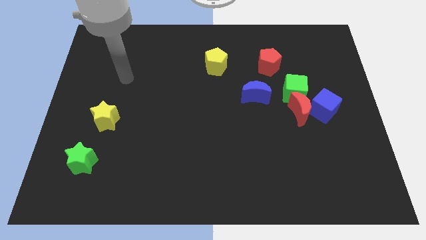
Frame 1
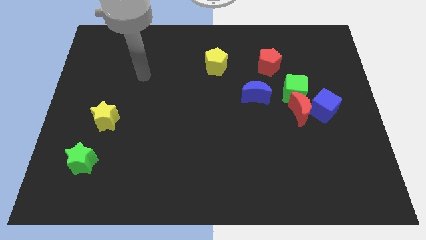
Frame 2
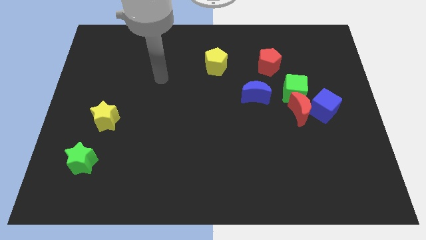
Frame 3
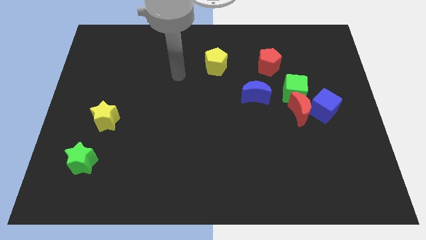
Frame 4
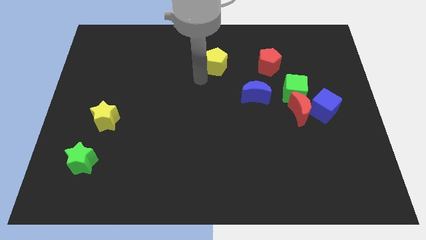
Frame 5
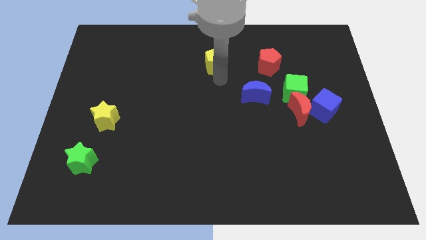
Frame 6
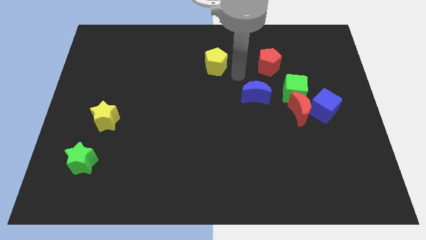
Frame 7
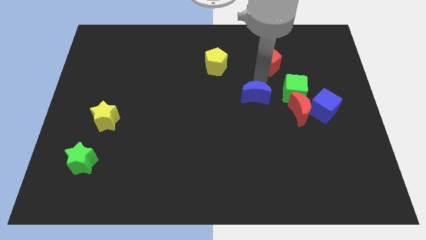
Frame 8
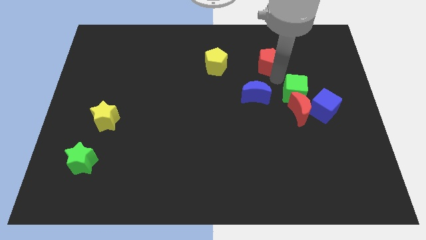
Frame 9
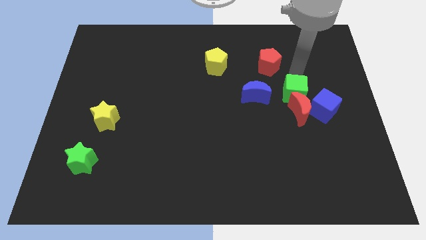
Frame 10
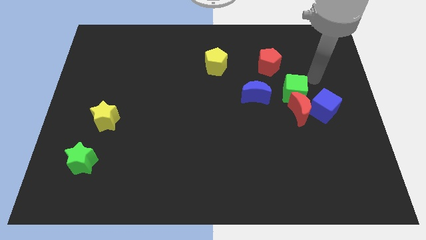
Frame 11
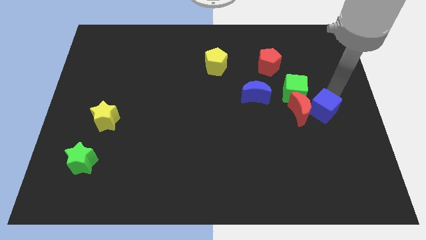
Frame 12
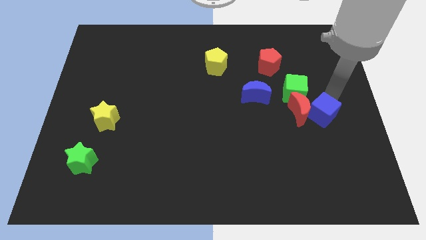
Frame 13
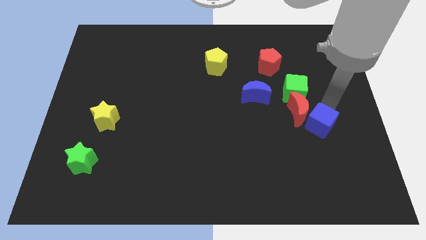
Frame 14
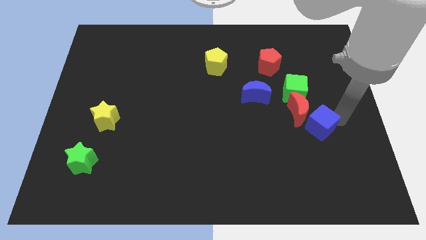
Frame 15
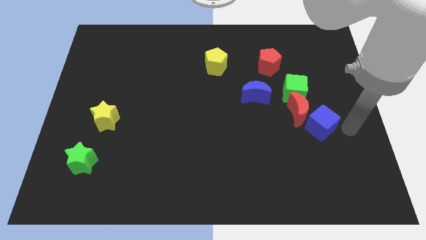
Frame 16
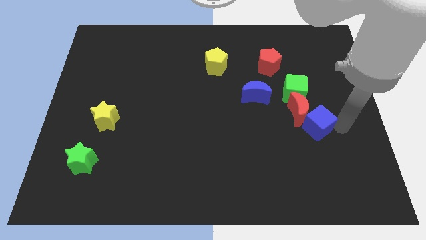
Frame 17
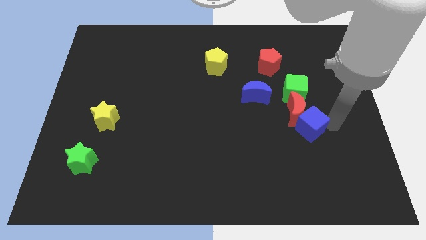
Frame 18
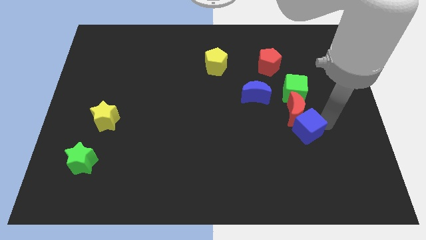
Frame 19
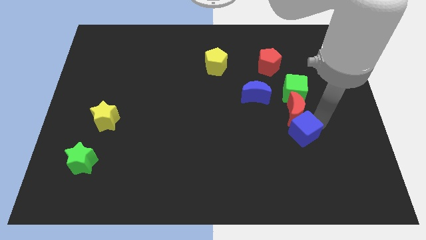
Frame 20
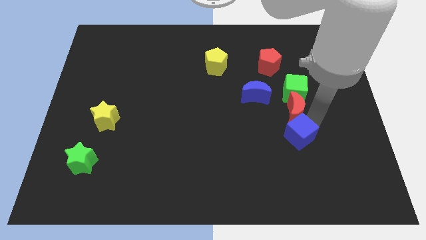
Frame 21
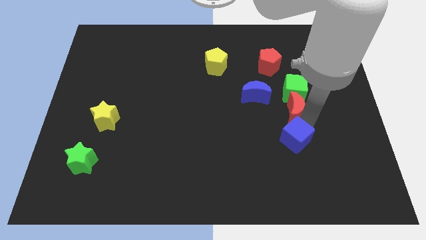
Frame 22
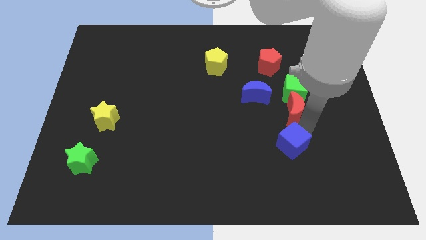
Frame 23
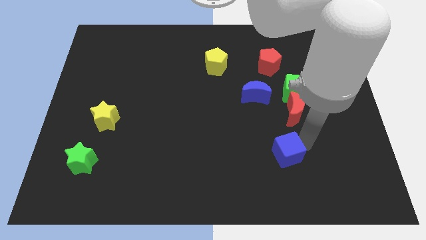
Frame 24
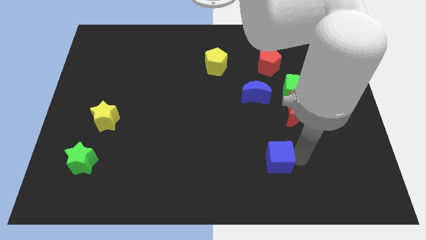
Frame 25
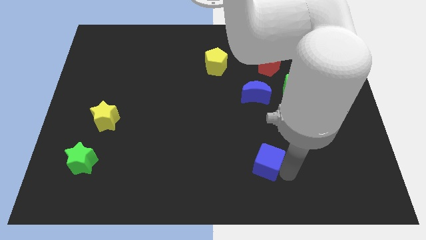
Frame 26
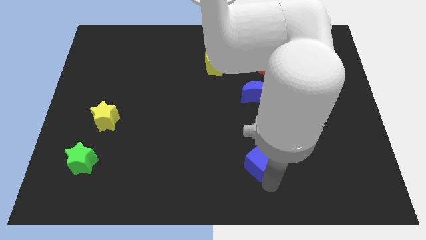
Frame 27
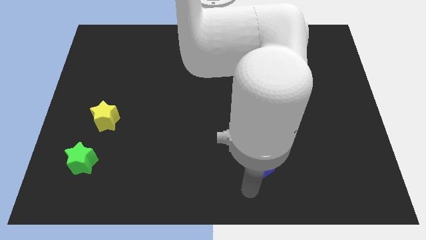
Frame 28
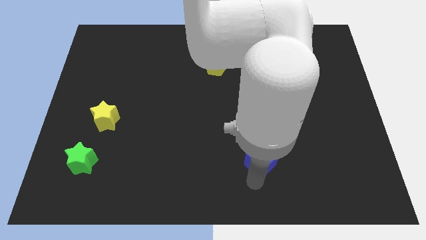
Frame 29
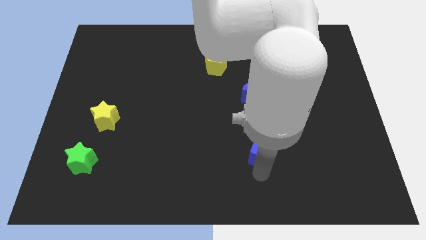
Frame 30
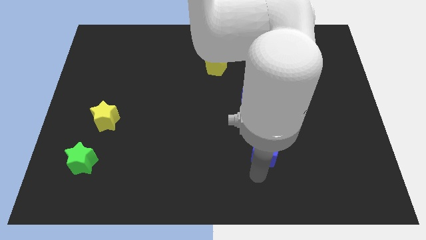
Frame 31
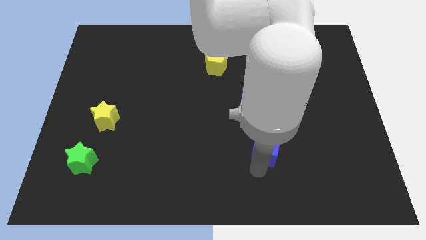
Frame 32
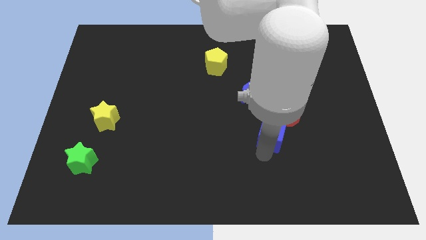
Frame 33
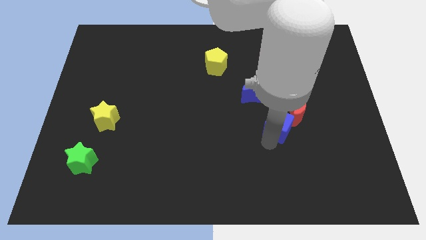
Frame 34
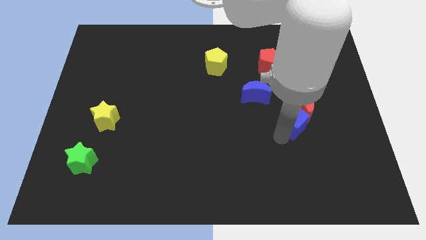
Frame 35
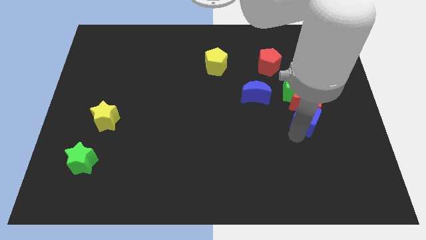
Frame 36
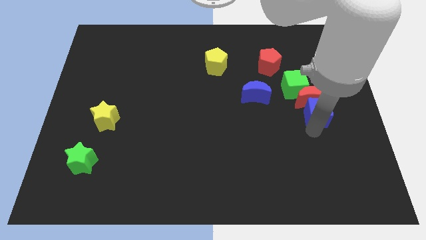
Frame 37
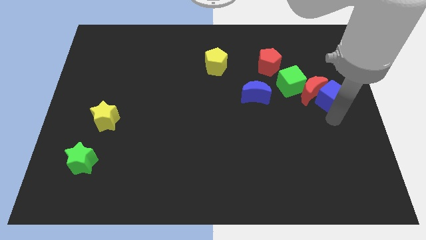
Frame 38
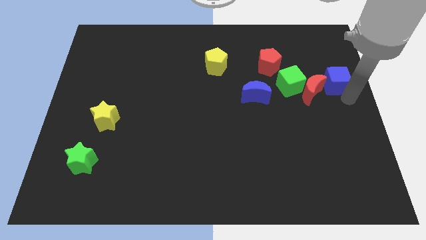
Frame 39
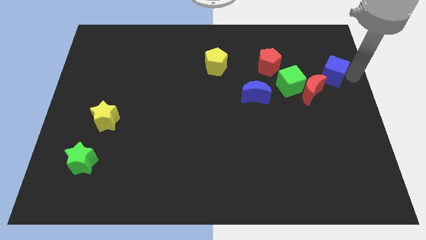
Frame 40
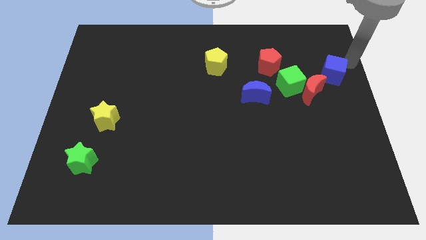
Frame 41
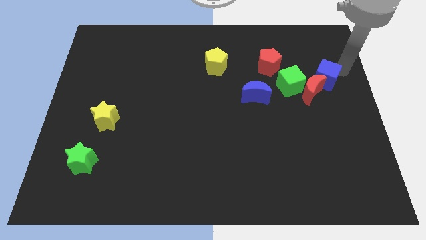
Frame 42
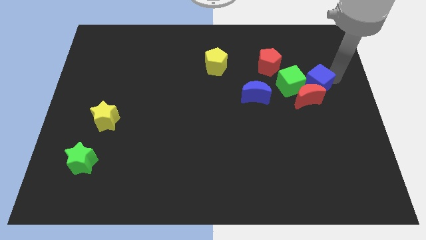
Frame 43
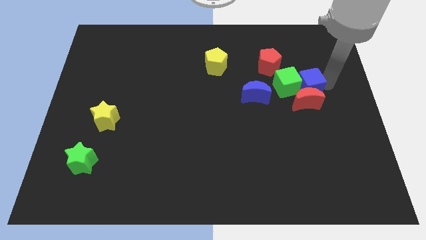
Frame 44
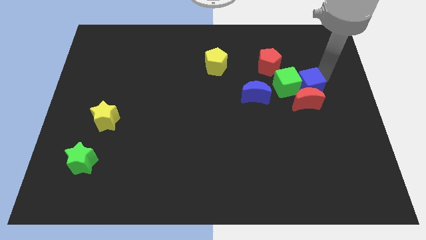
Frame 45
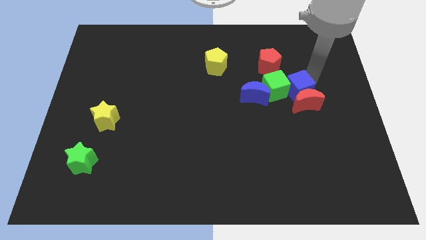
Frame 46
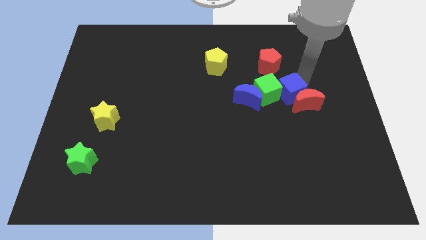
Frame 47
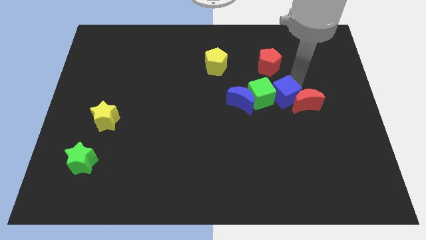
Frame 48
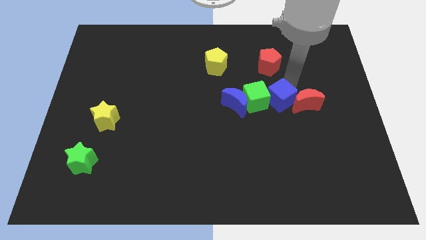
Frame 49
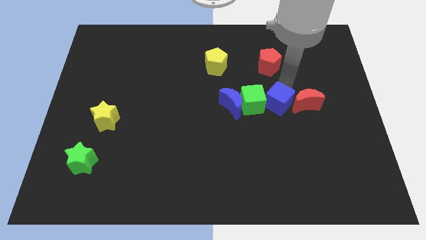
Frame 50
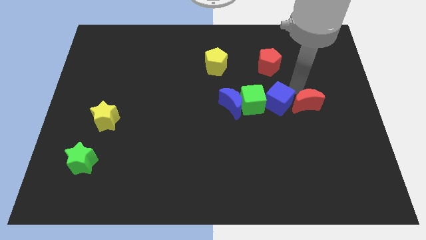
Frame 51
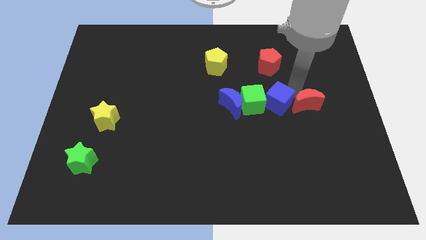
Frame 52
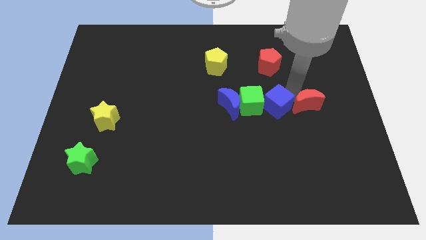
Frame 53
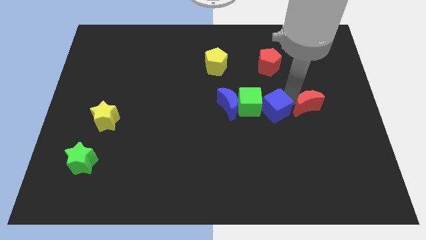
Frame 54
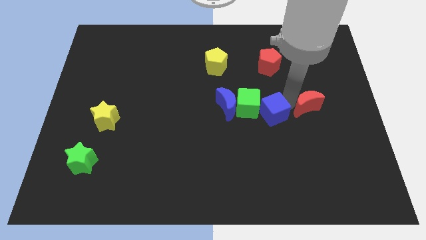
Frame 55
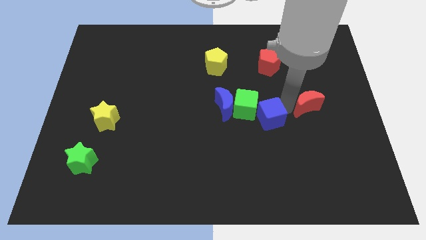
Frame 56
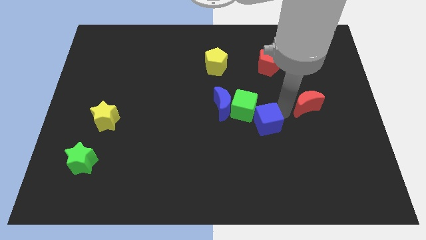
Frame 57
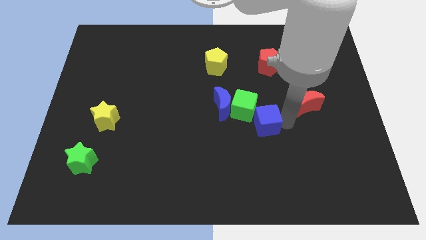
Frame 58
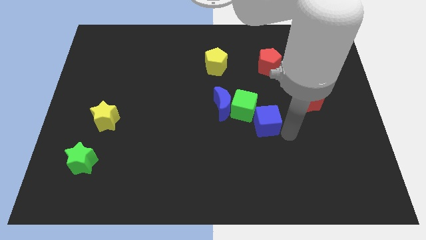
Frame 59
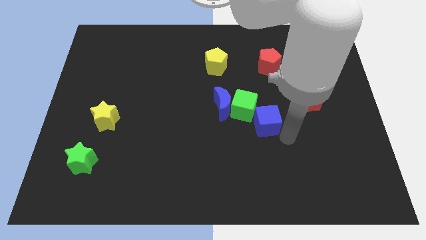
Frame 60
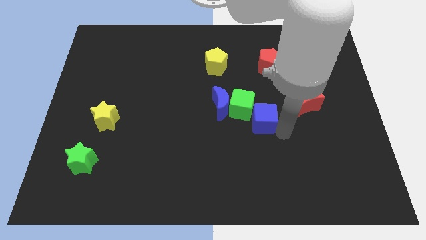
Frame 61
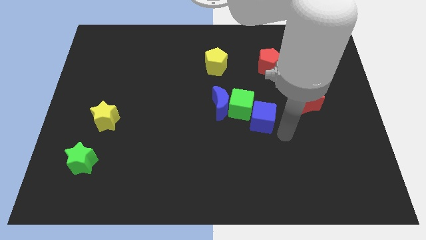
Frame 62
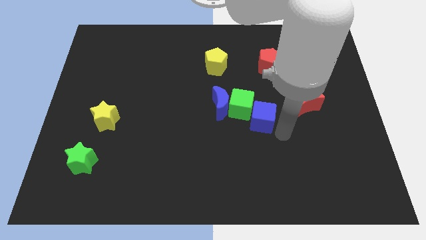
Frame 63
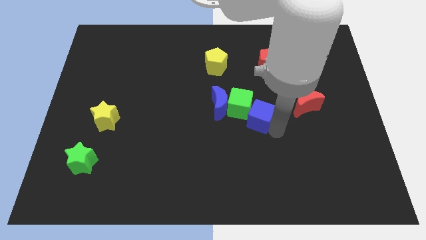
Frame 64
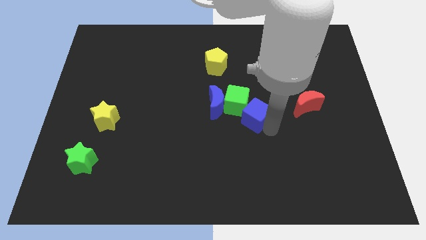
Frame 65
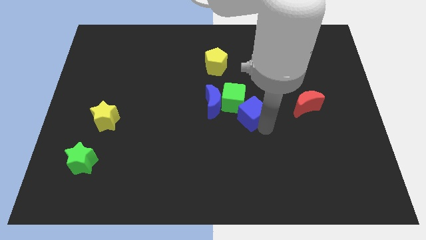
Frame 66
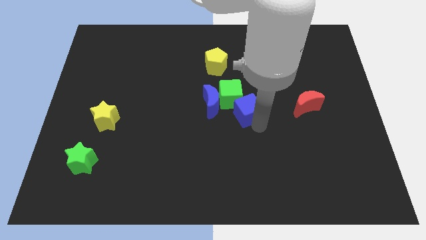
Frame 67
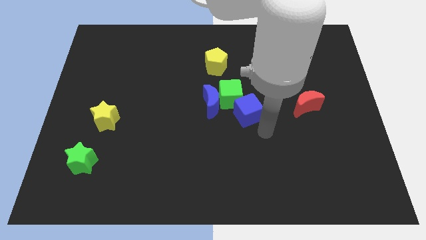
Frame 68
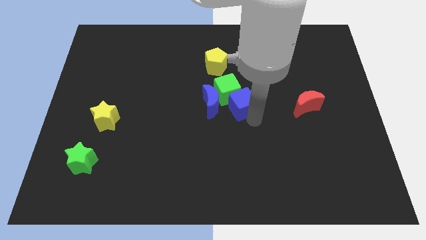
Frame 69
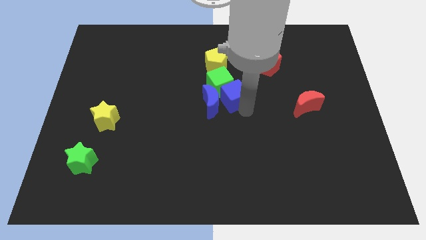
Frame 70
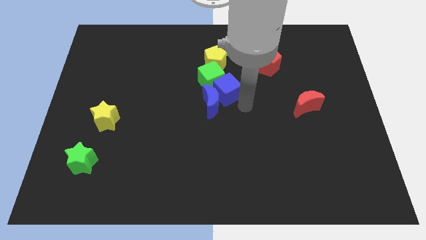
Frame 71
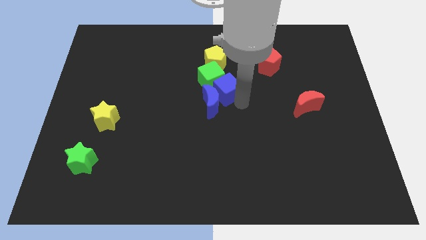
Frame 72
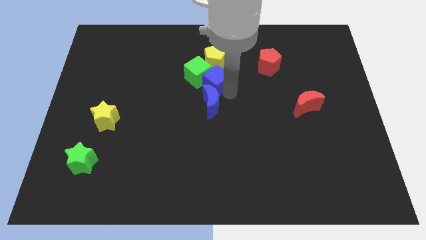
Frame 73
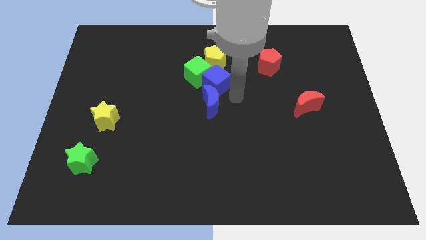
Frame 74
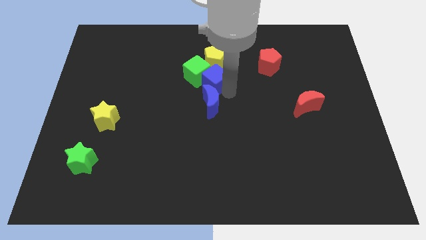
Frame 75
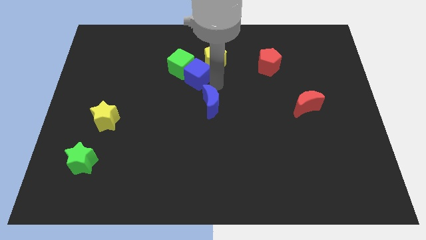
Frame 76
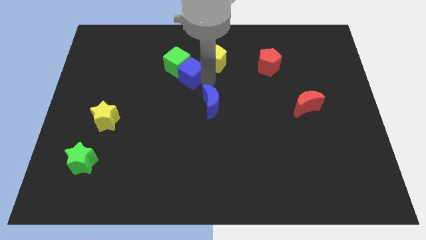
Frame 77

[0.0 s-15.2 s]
slide the blue cube left of the yellow pentagon
